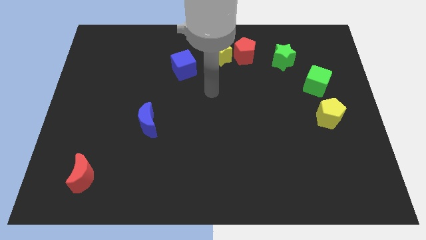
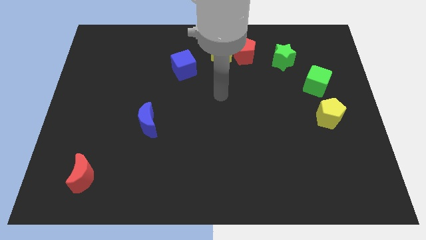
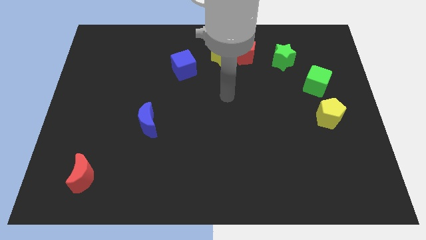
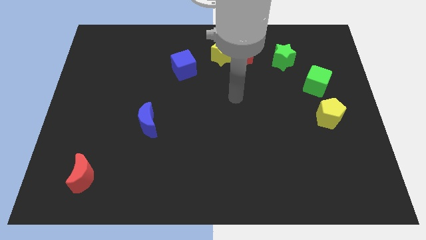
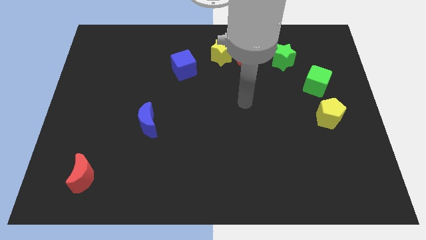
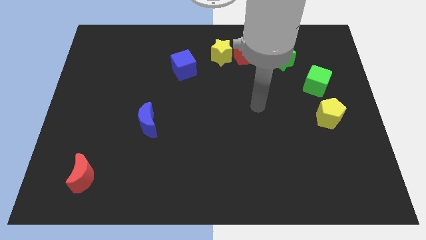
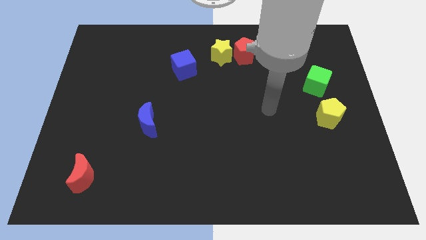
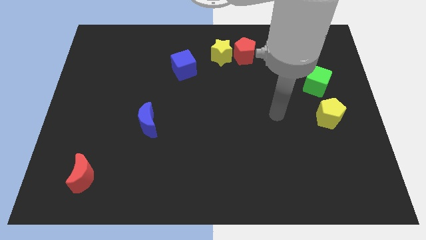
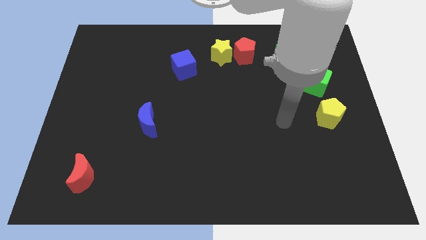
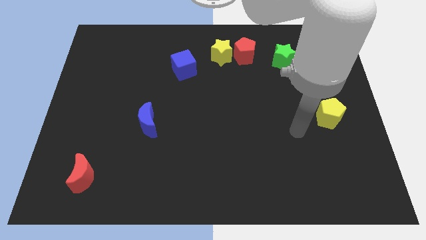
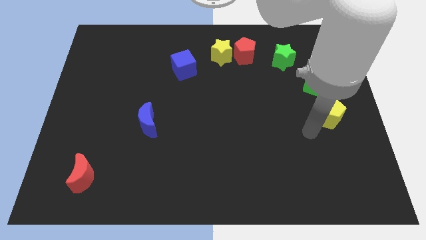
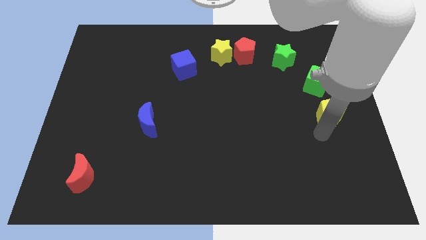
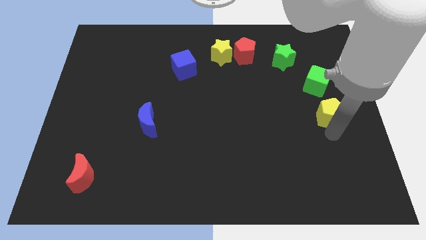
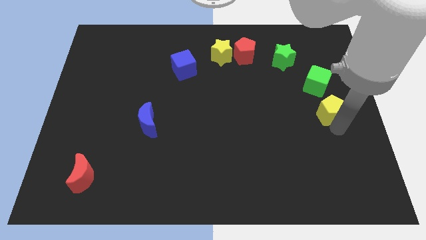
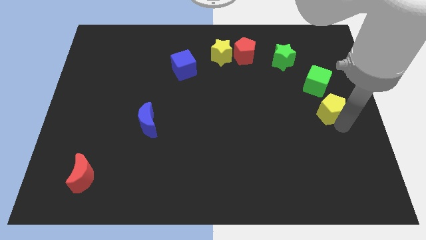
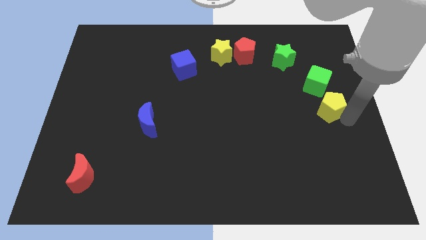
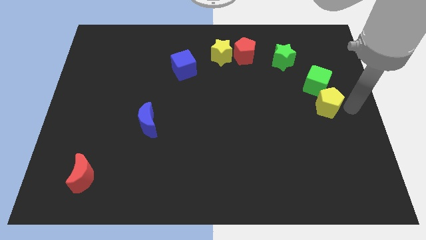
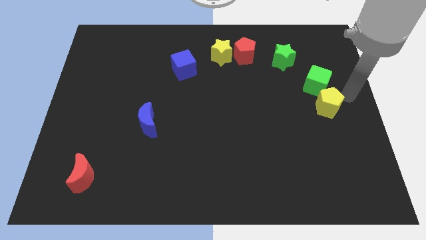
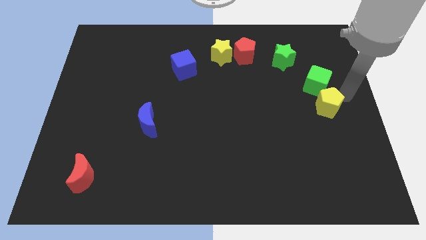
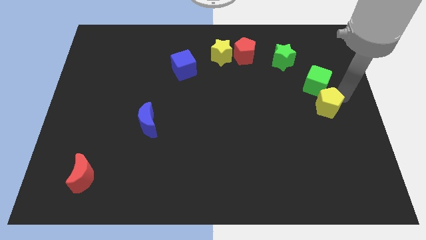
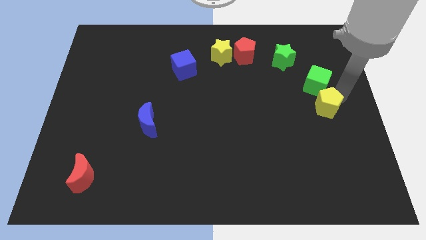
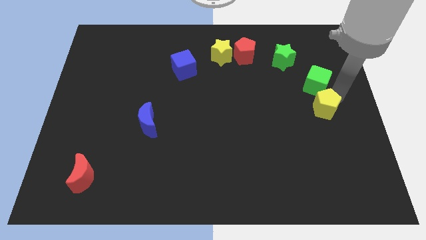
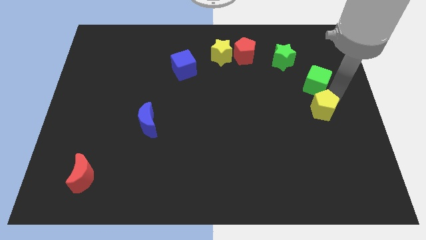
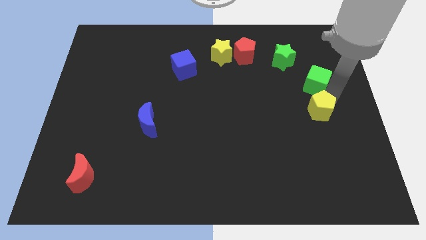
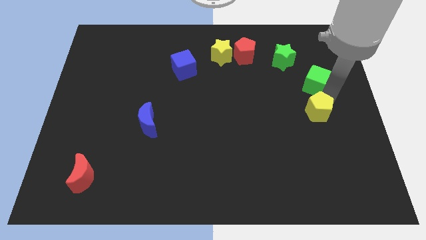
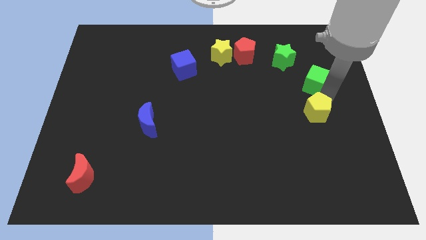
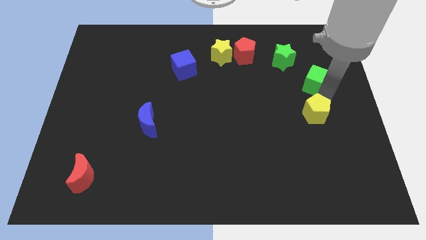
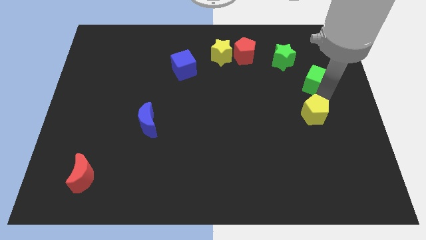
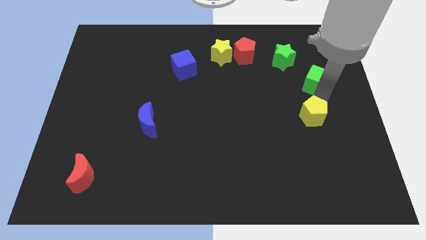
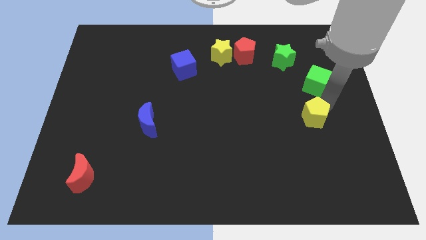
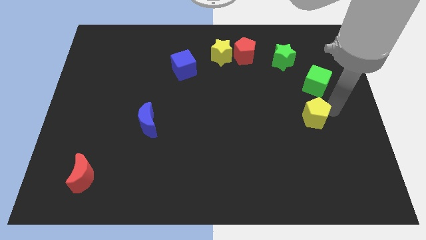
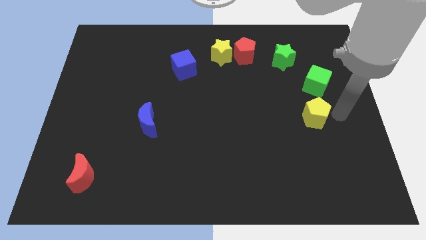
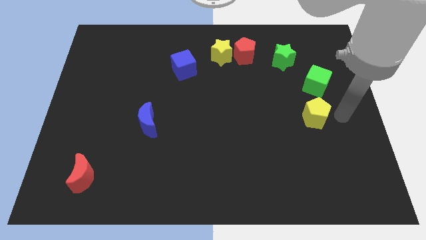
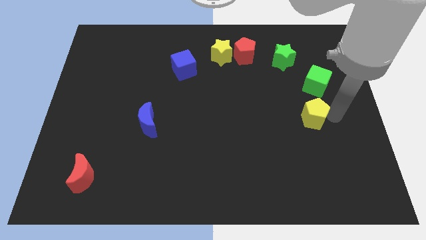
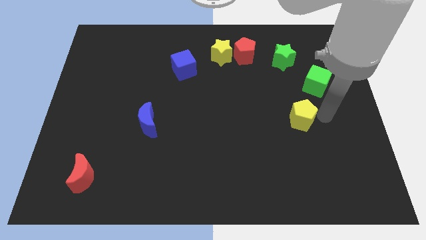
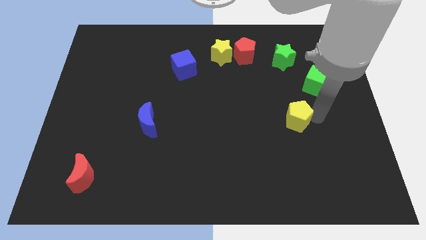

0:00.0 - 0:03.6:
push the yellow pentagon to the left a bit

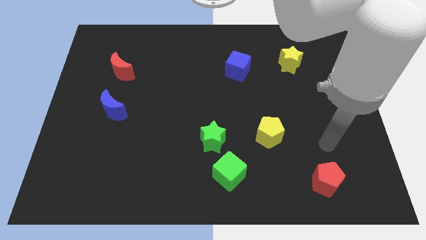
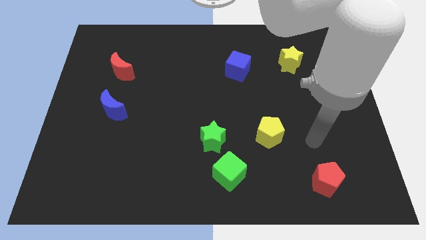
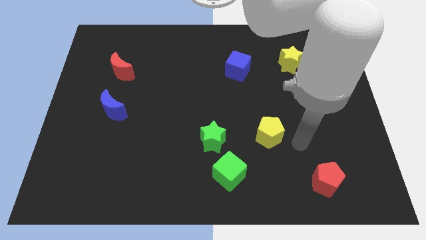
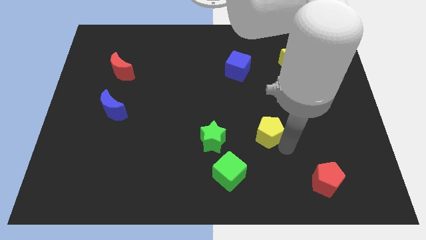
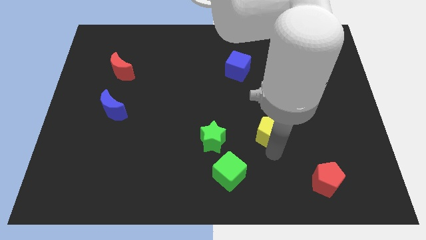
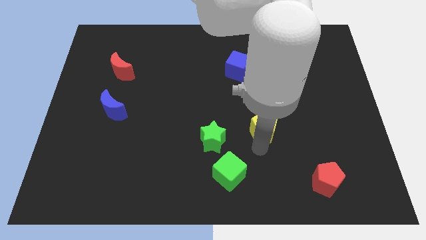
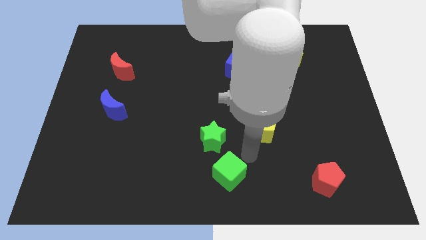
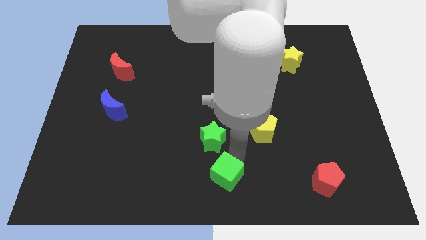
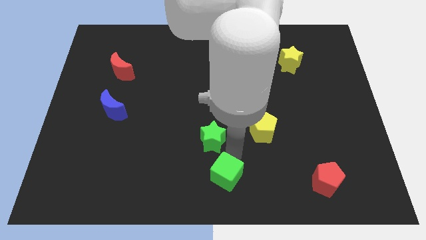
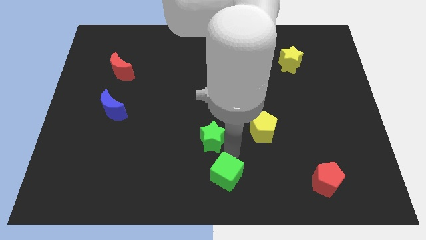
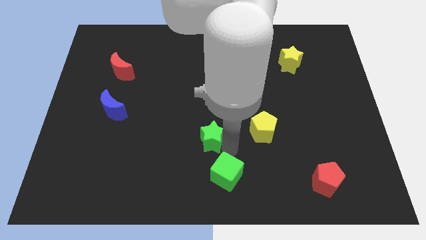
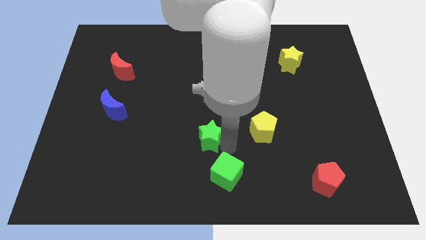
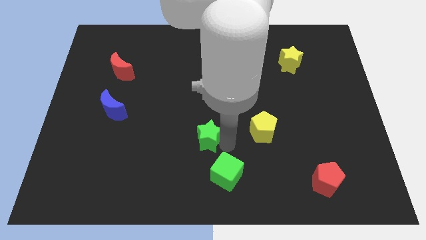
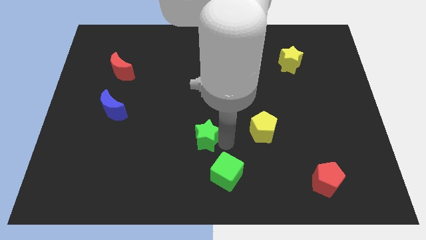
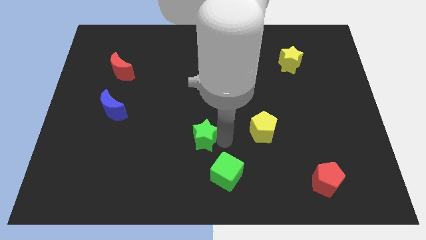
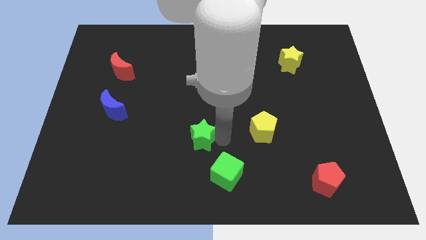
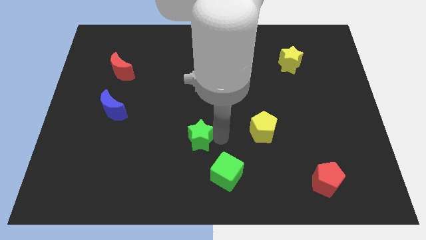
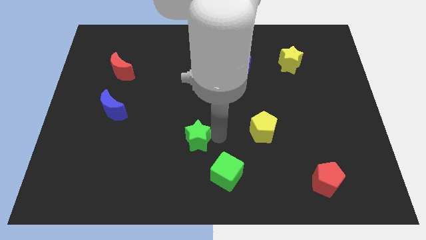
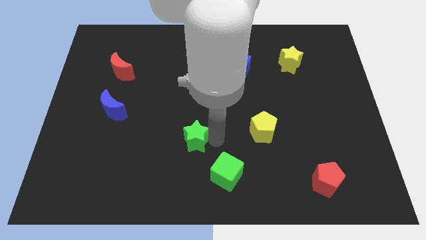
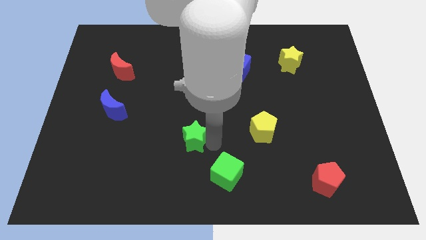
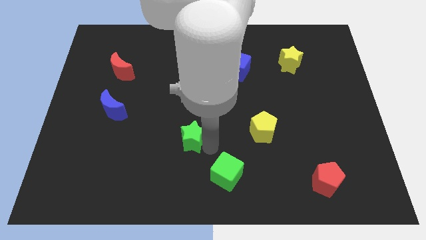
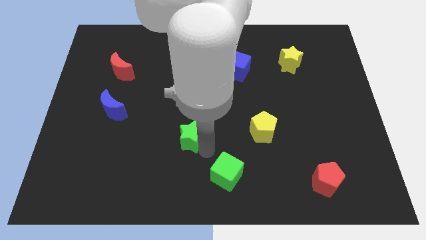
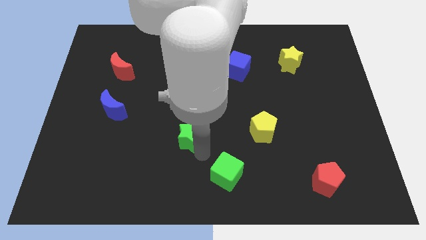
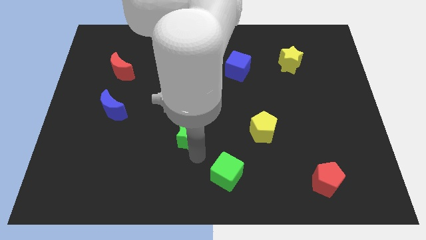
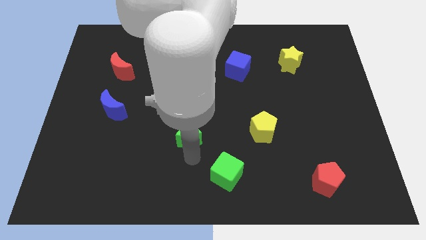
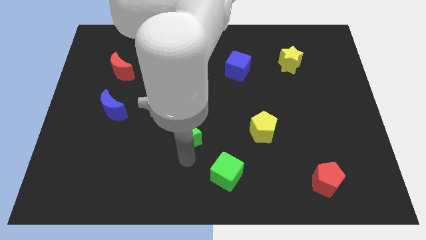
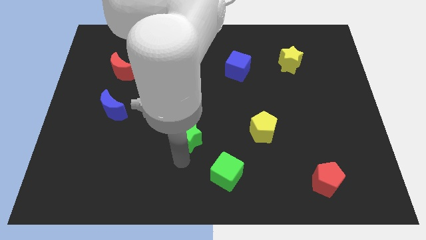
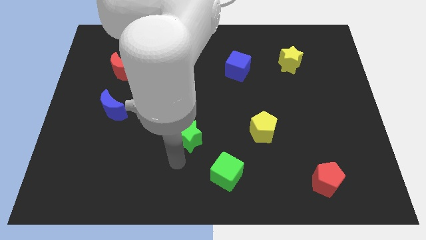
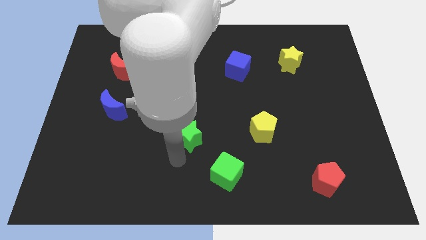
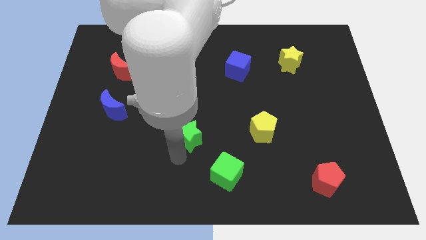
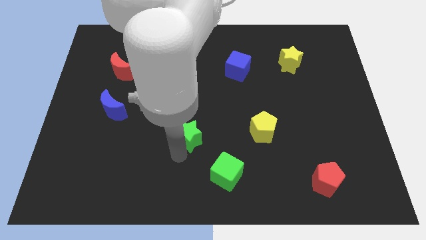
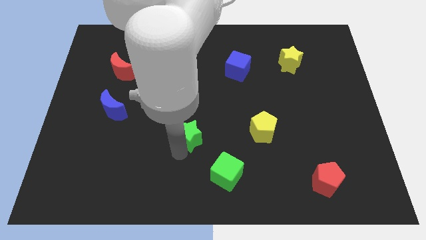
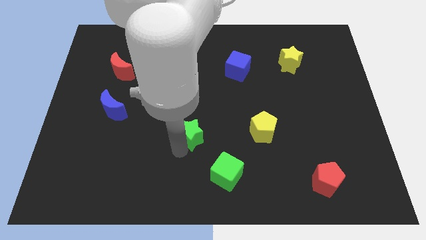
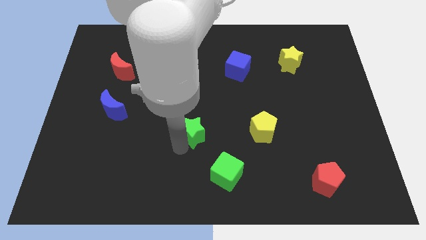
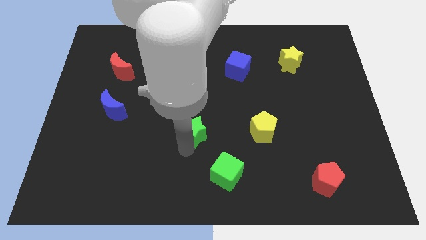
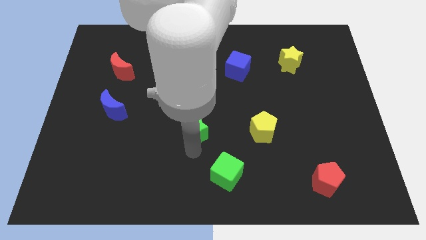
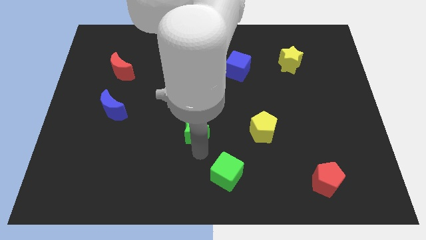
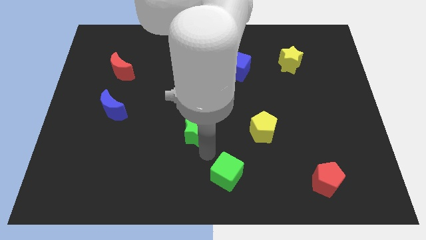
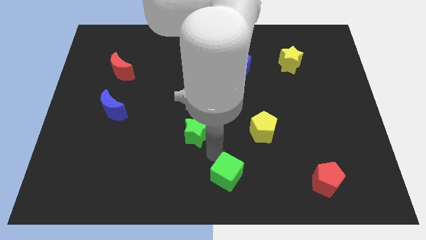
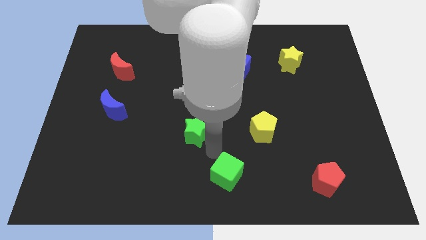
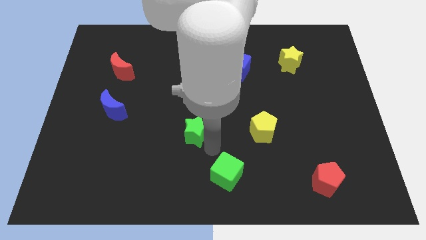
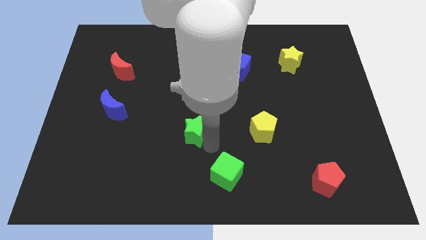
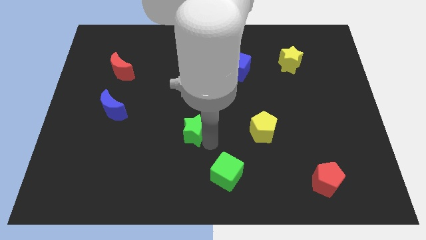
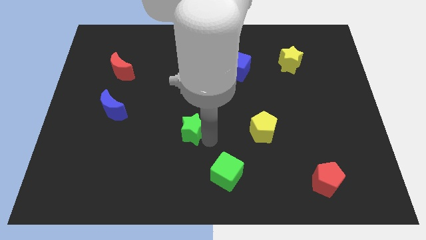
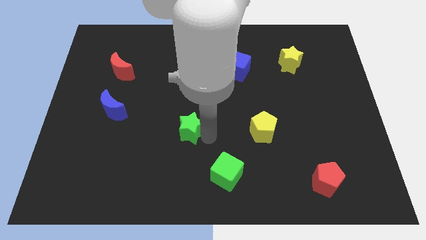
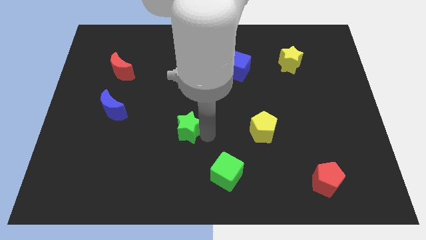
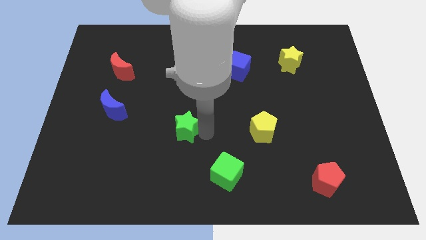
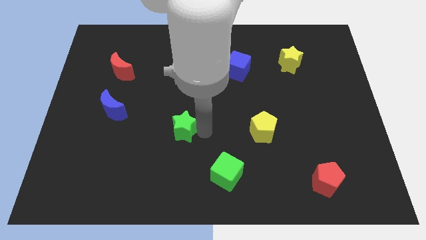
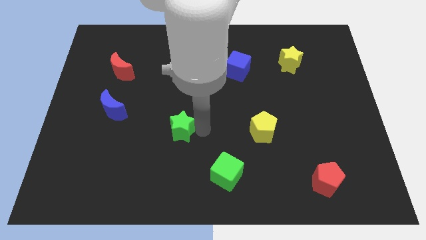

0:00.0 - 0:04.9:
move the green star a bit diagonally upwards and to the left
